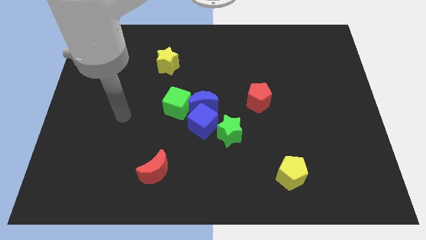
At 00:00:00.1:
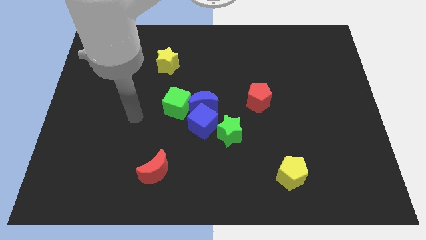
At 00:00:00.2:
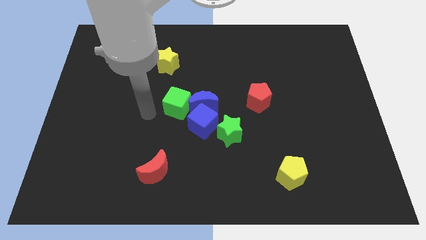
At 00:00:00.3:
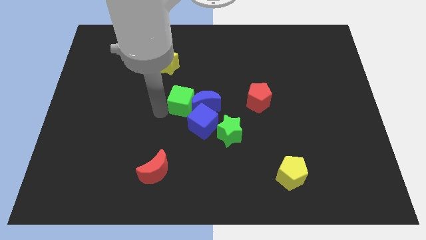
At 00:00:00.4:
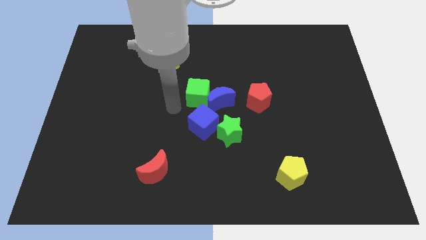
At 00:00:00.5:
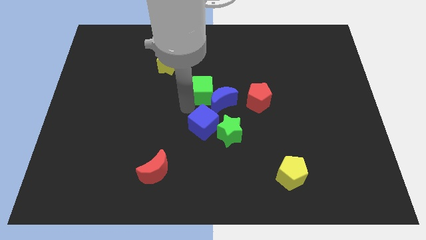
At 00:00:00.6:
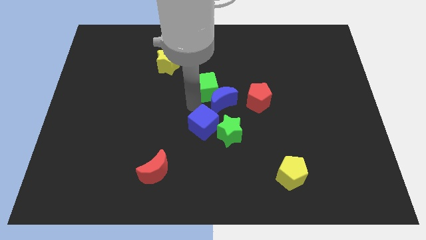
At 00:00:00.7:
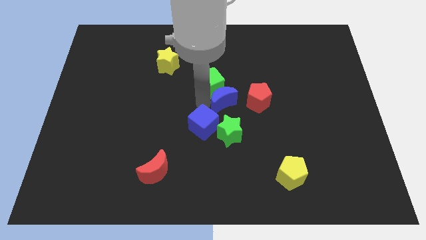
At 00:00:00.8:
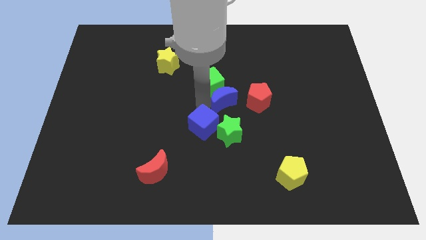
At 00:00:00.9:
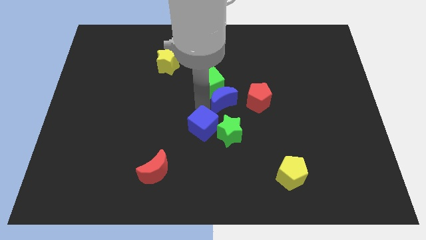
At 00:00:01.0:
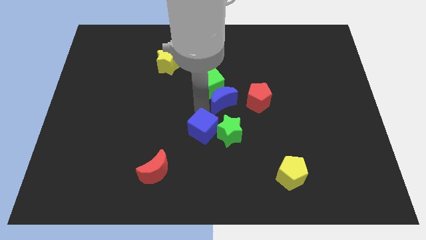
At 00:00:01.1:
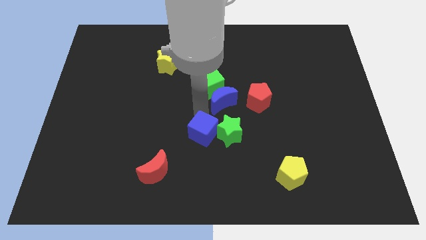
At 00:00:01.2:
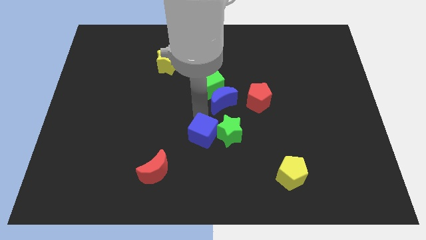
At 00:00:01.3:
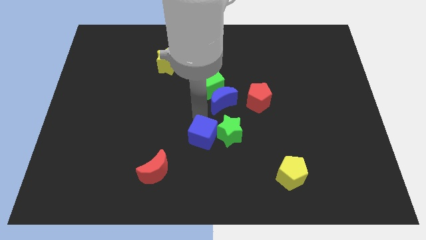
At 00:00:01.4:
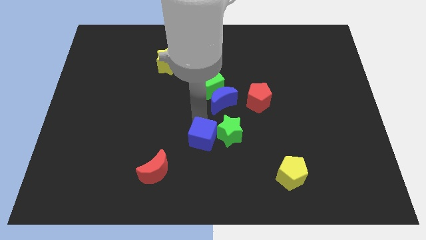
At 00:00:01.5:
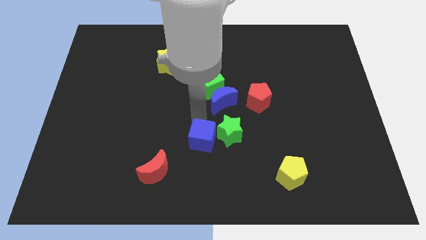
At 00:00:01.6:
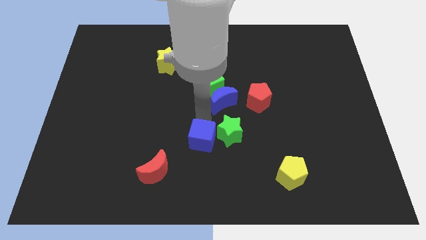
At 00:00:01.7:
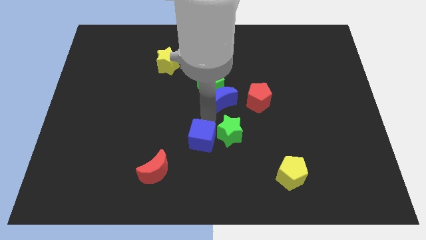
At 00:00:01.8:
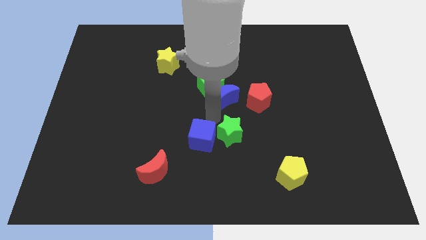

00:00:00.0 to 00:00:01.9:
move the blue cube away from the group of blocks

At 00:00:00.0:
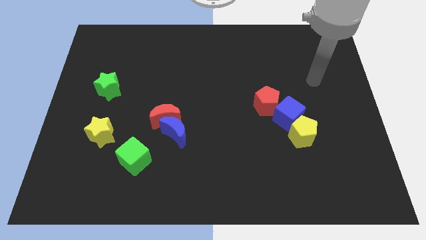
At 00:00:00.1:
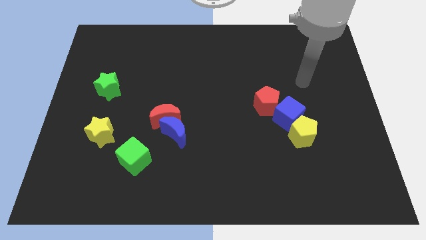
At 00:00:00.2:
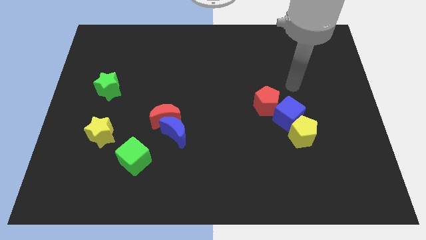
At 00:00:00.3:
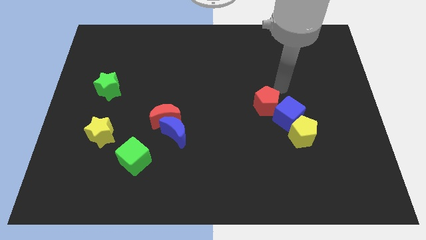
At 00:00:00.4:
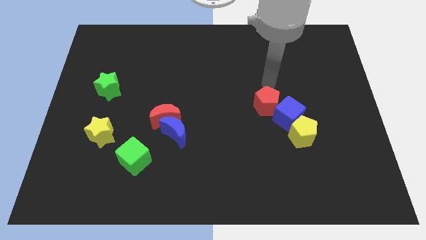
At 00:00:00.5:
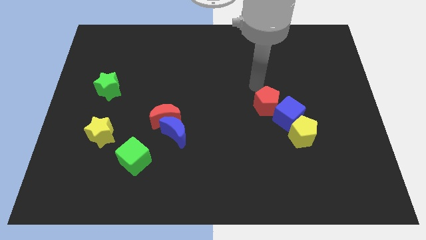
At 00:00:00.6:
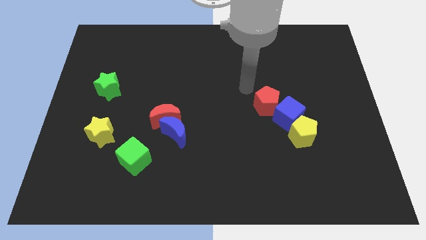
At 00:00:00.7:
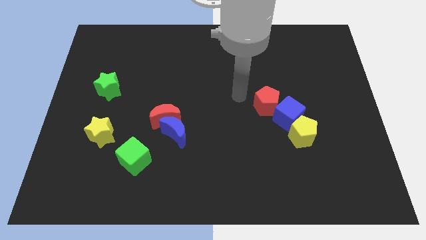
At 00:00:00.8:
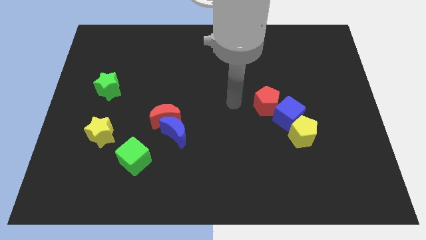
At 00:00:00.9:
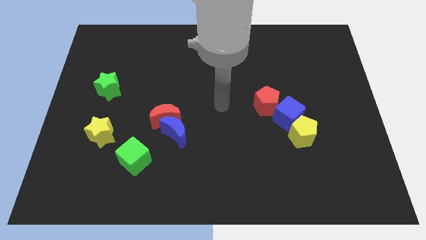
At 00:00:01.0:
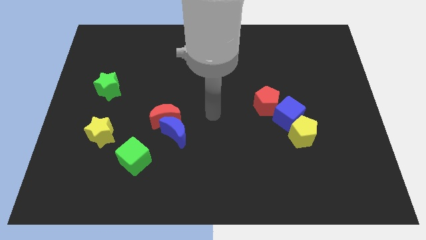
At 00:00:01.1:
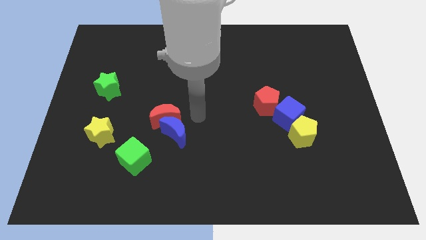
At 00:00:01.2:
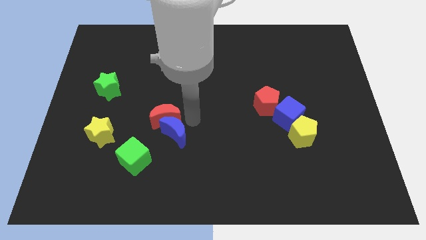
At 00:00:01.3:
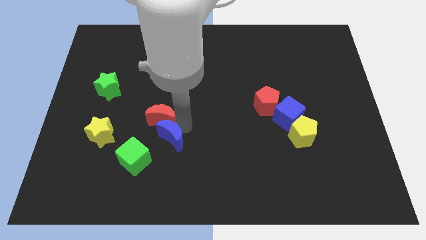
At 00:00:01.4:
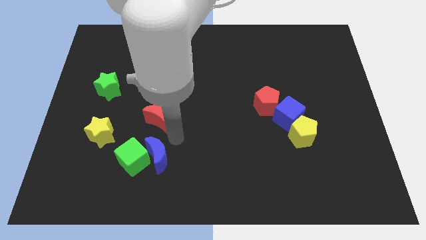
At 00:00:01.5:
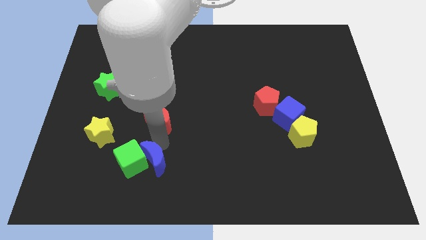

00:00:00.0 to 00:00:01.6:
move the red moon away from the blue moon

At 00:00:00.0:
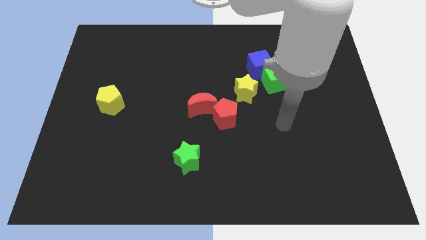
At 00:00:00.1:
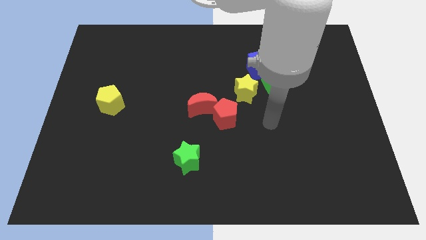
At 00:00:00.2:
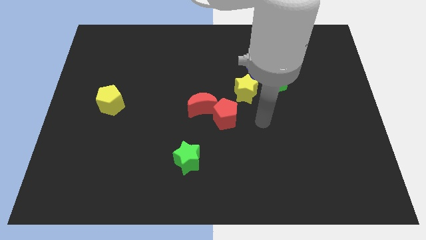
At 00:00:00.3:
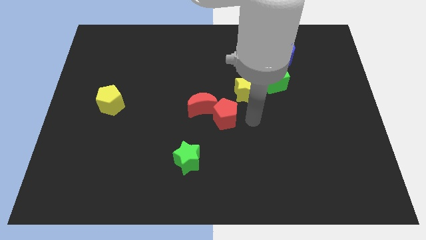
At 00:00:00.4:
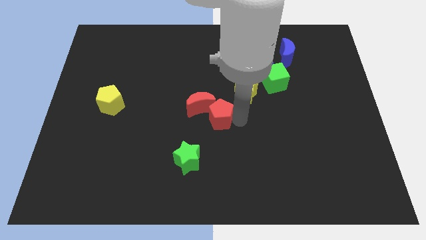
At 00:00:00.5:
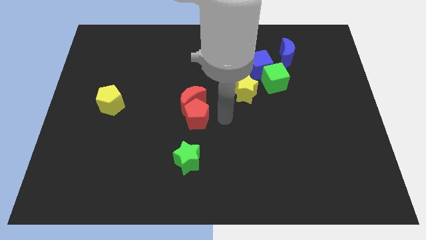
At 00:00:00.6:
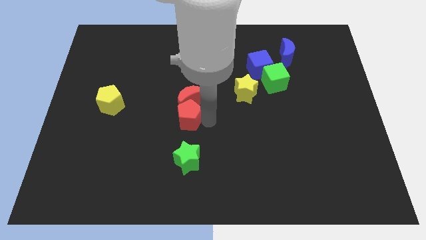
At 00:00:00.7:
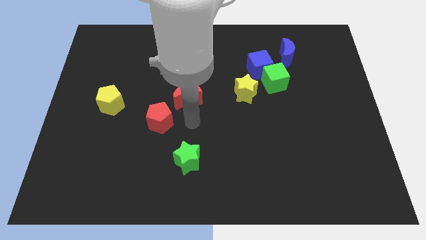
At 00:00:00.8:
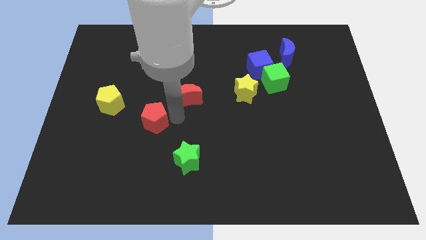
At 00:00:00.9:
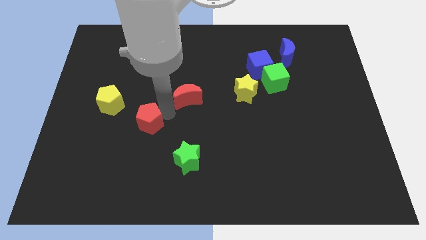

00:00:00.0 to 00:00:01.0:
pull the red moon apart from the red pentagon

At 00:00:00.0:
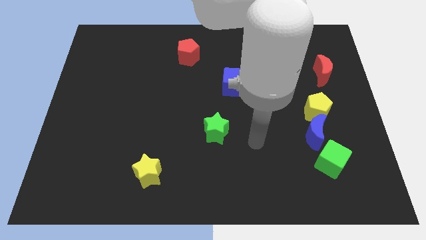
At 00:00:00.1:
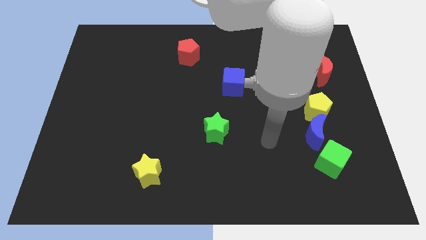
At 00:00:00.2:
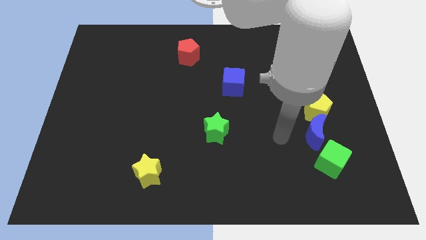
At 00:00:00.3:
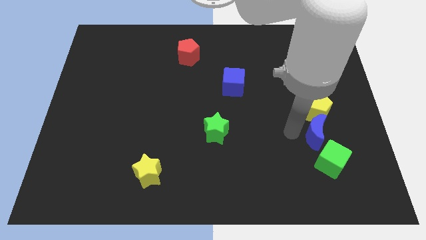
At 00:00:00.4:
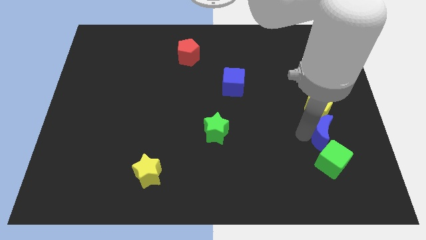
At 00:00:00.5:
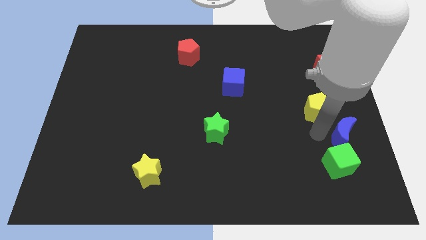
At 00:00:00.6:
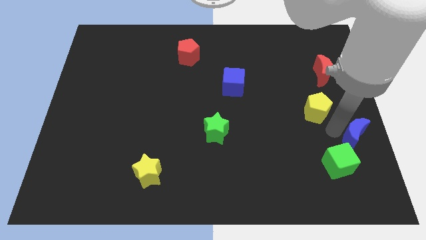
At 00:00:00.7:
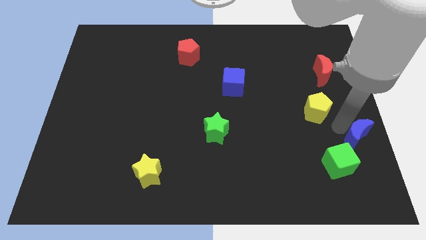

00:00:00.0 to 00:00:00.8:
pull the yellow pentagon apart from the blue moon

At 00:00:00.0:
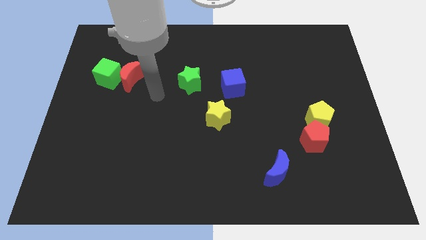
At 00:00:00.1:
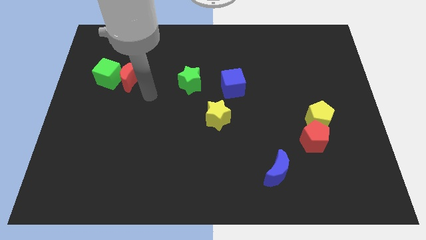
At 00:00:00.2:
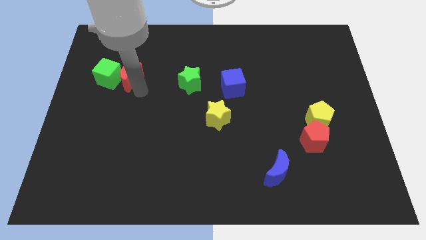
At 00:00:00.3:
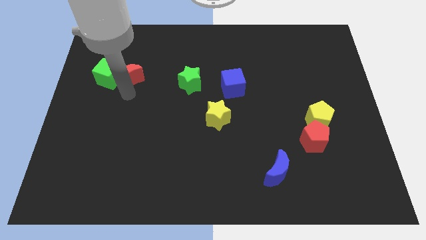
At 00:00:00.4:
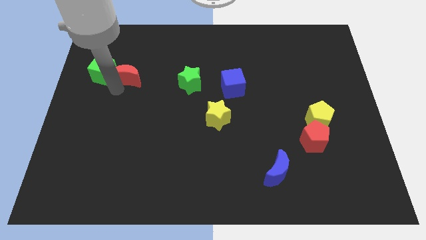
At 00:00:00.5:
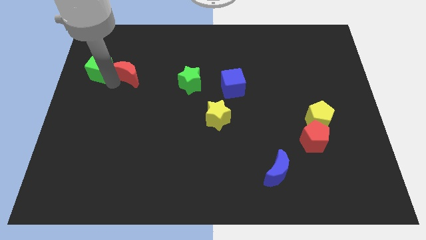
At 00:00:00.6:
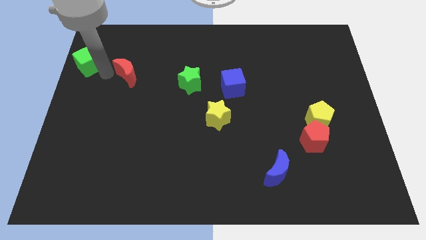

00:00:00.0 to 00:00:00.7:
move the red moon away from the green cube

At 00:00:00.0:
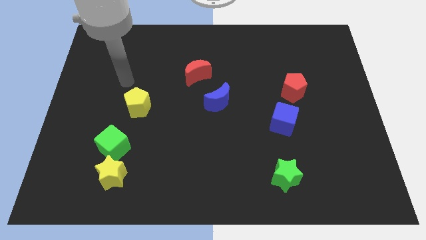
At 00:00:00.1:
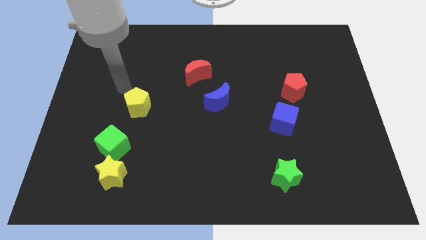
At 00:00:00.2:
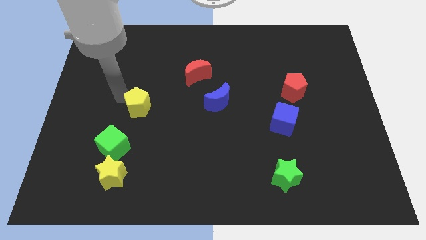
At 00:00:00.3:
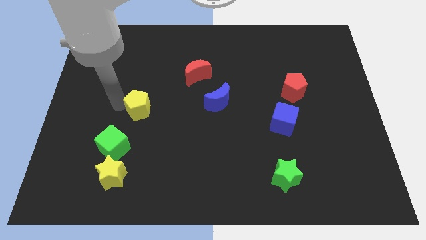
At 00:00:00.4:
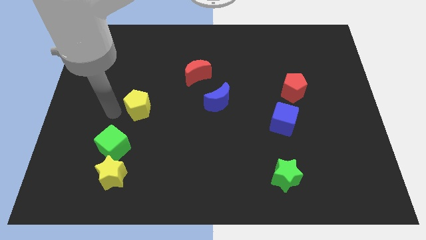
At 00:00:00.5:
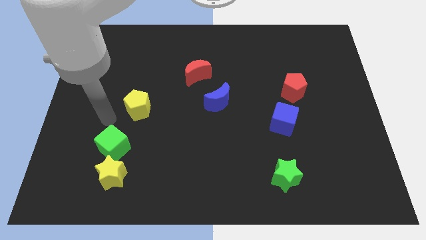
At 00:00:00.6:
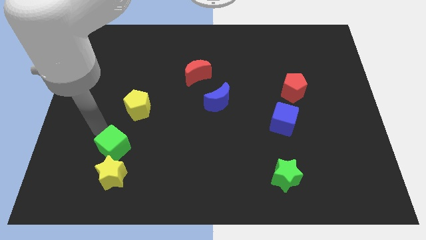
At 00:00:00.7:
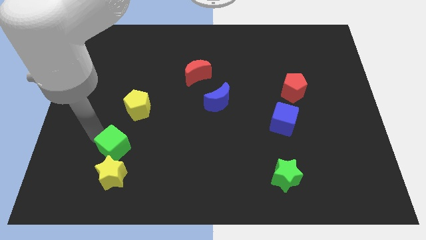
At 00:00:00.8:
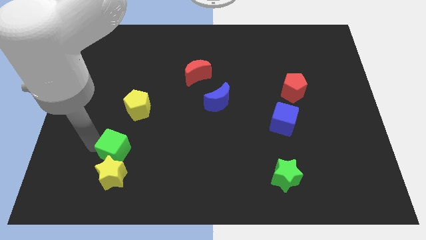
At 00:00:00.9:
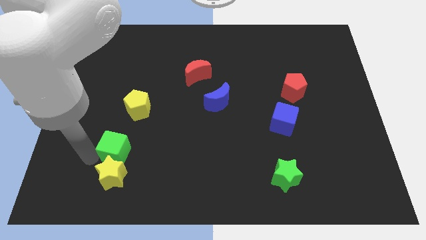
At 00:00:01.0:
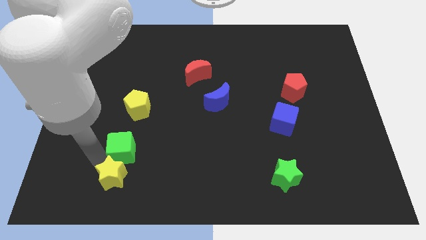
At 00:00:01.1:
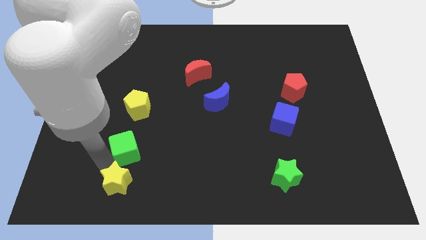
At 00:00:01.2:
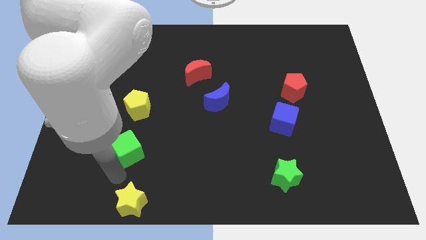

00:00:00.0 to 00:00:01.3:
pull the green cube apart from the yellow star

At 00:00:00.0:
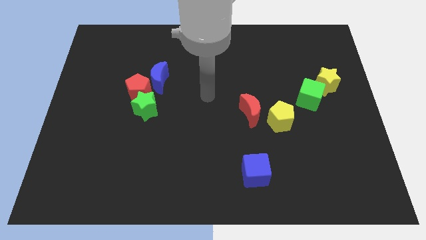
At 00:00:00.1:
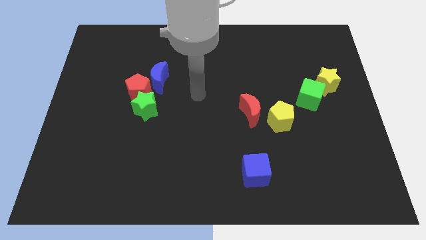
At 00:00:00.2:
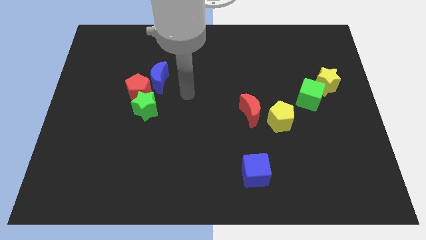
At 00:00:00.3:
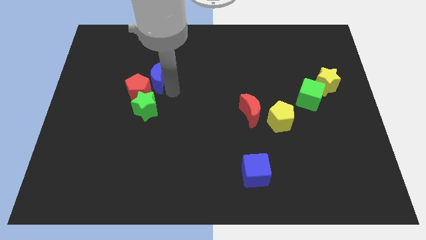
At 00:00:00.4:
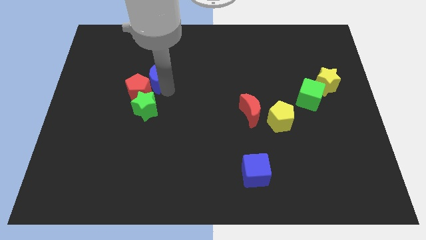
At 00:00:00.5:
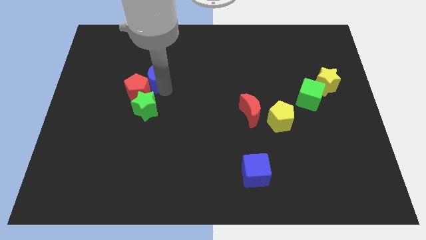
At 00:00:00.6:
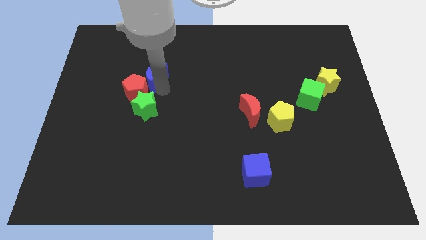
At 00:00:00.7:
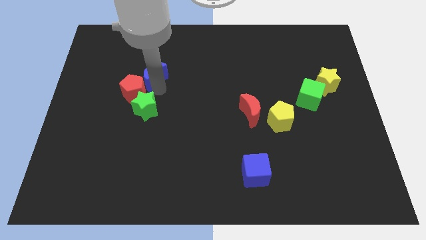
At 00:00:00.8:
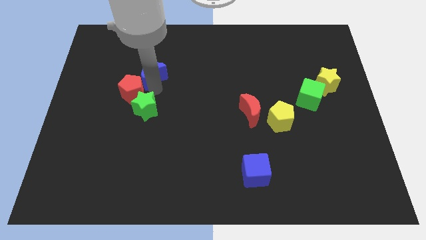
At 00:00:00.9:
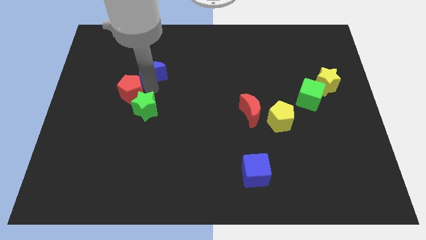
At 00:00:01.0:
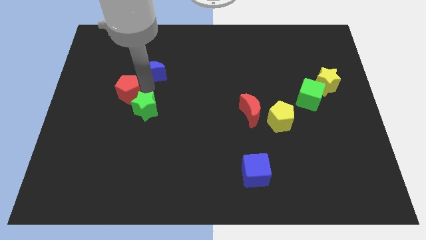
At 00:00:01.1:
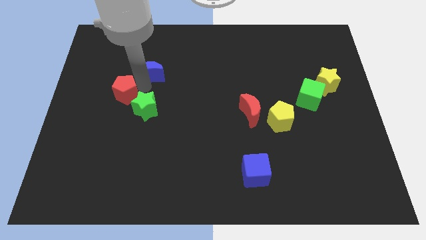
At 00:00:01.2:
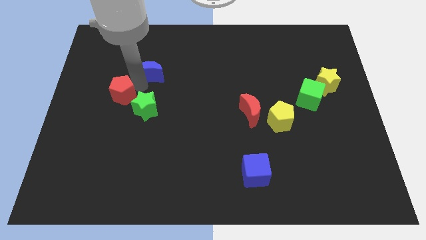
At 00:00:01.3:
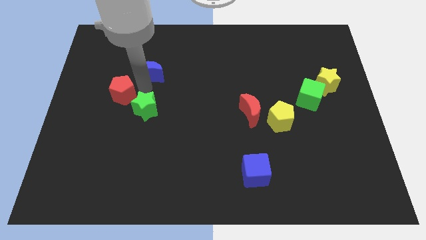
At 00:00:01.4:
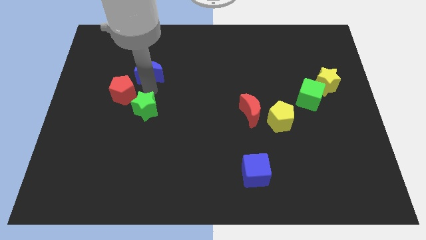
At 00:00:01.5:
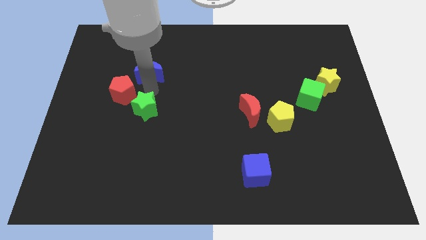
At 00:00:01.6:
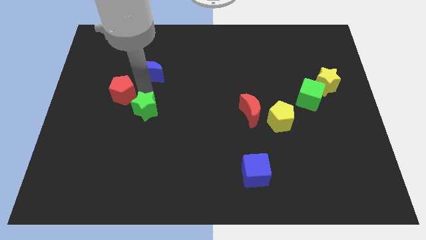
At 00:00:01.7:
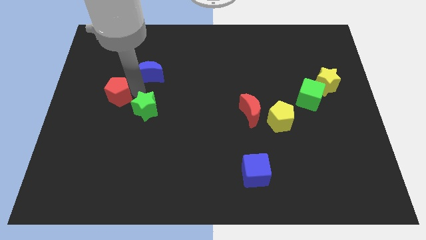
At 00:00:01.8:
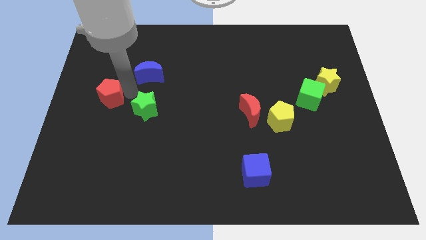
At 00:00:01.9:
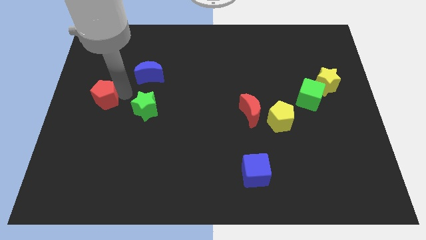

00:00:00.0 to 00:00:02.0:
move the red pentagon away from the green star and blue moon
